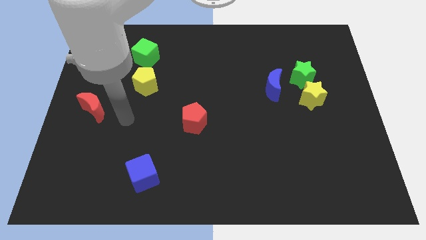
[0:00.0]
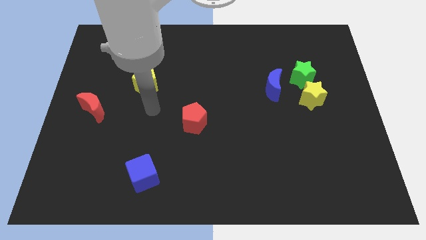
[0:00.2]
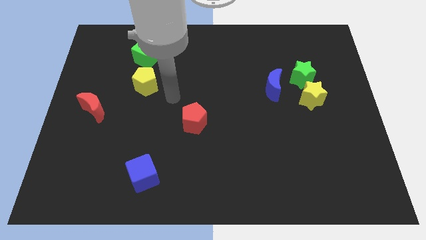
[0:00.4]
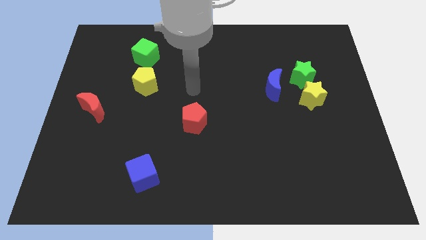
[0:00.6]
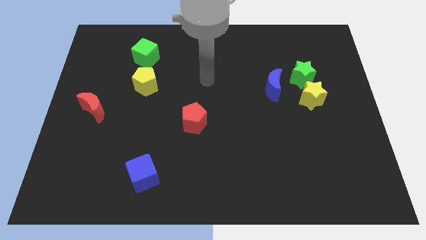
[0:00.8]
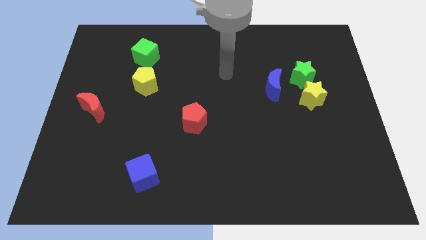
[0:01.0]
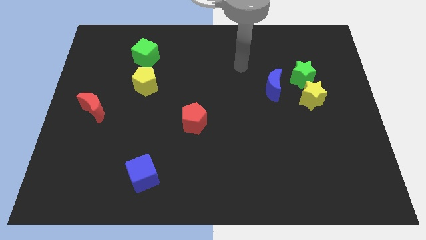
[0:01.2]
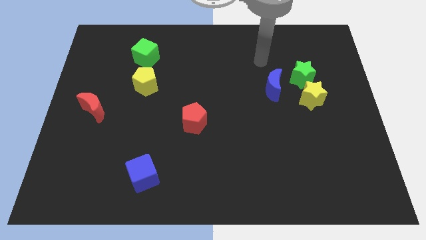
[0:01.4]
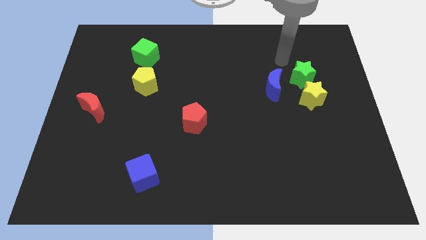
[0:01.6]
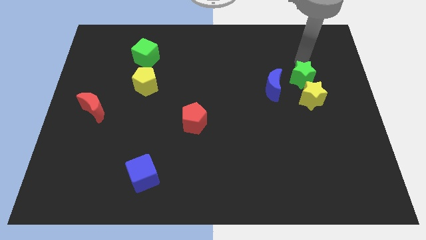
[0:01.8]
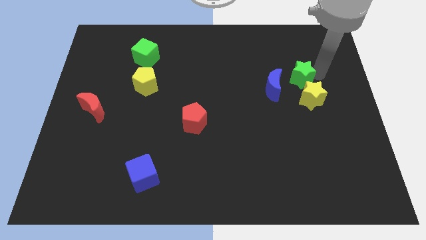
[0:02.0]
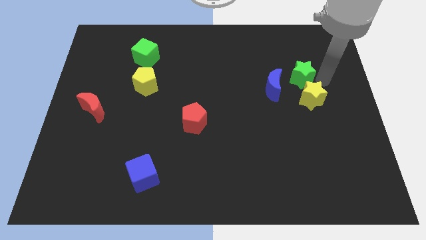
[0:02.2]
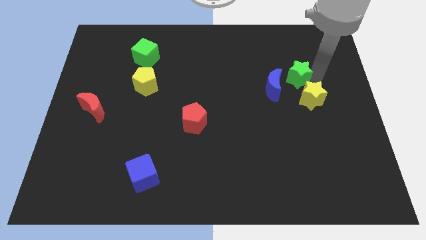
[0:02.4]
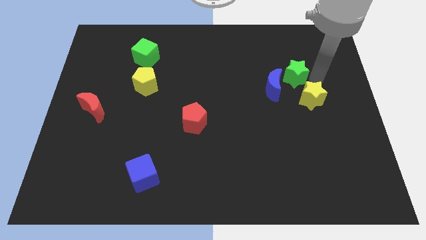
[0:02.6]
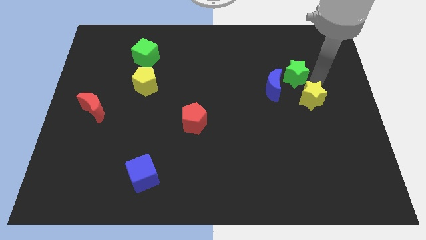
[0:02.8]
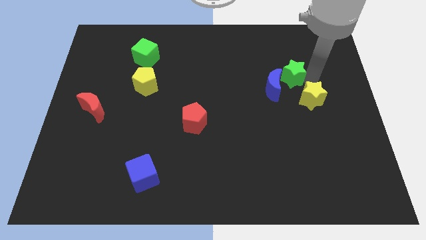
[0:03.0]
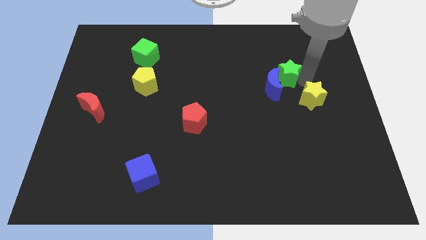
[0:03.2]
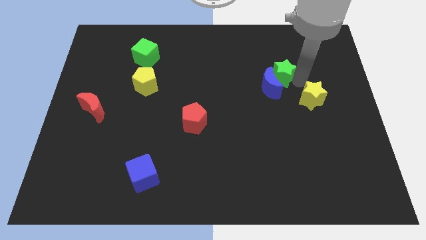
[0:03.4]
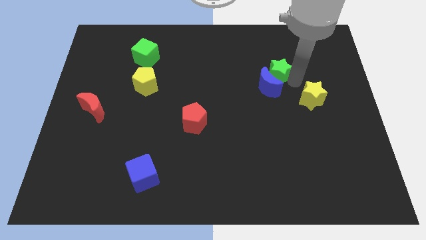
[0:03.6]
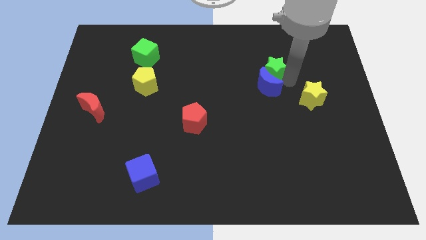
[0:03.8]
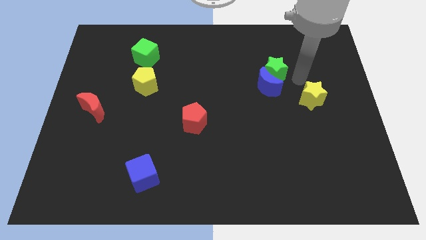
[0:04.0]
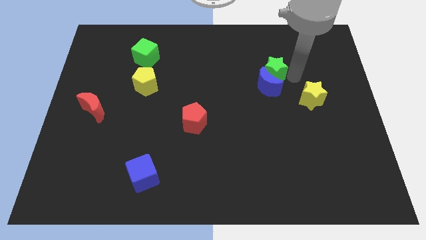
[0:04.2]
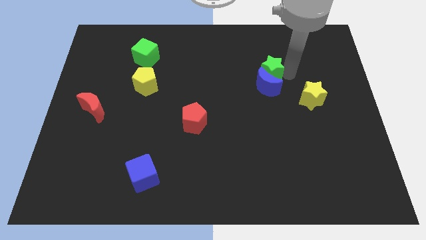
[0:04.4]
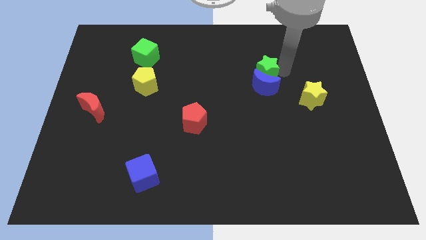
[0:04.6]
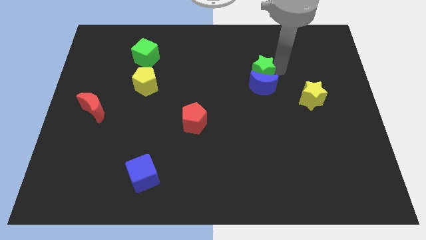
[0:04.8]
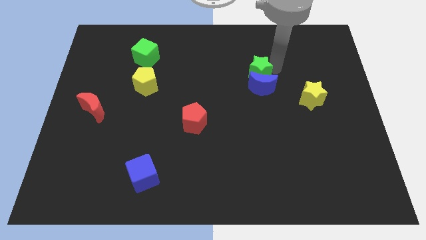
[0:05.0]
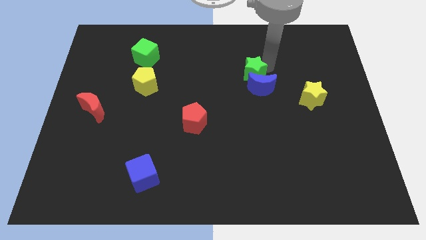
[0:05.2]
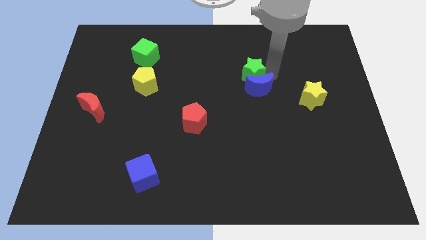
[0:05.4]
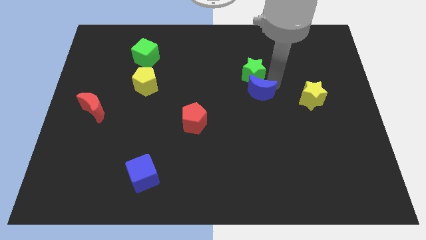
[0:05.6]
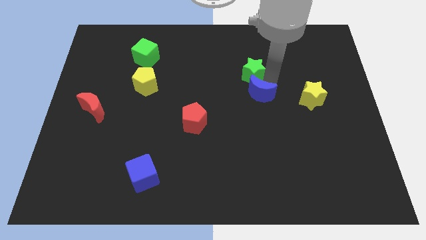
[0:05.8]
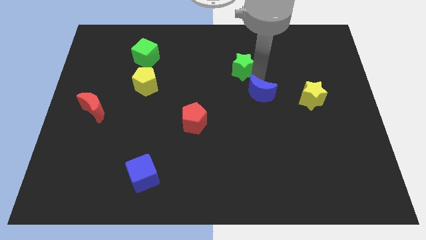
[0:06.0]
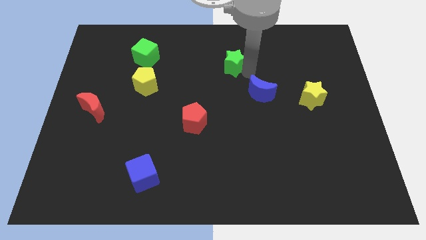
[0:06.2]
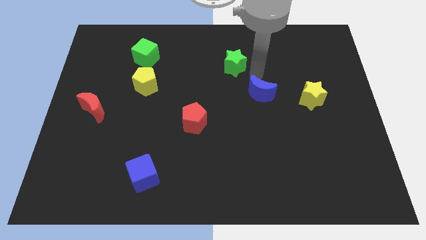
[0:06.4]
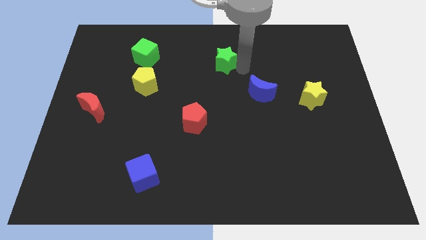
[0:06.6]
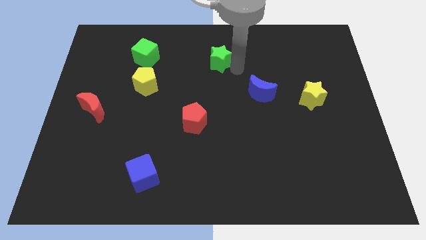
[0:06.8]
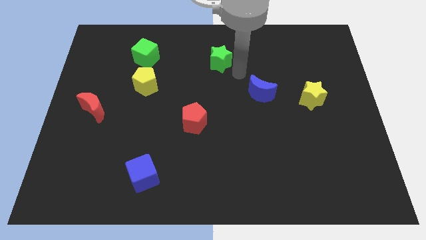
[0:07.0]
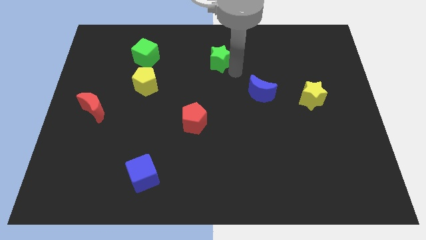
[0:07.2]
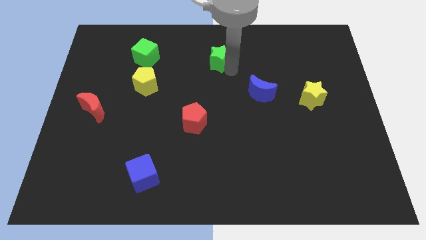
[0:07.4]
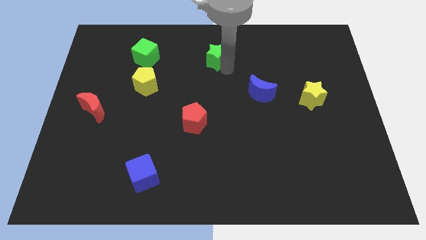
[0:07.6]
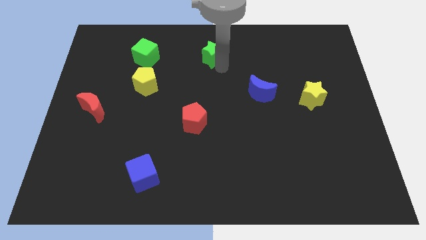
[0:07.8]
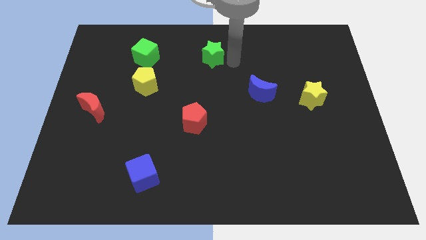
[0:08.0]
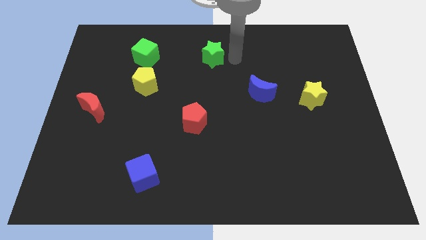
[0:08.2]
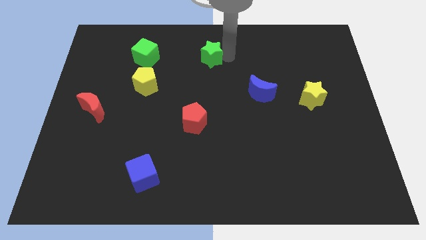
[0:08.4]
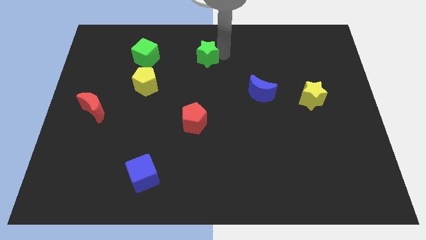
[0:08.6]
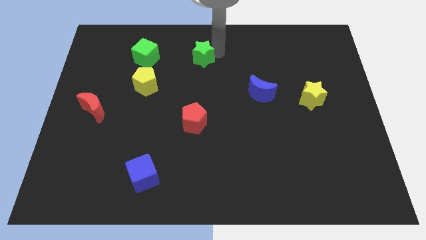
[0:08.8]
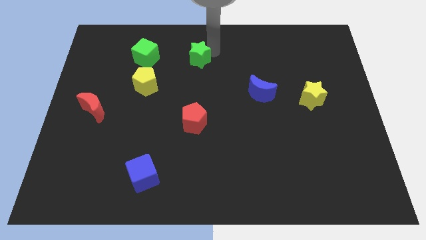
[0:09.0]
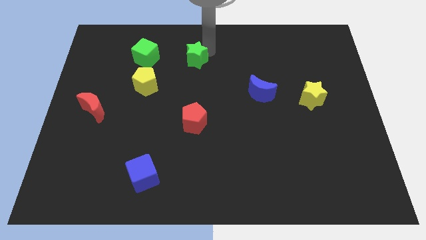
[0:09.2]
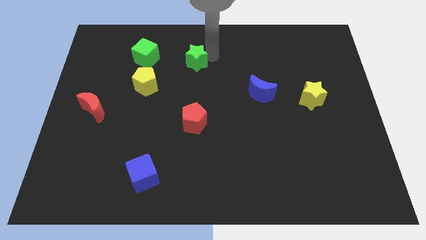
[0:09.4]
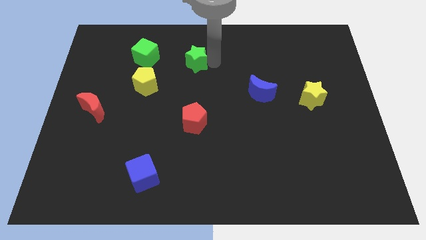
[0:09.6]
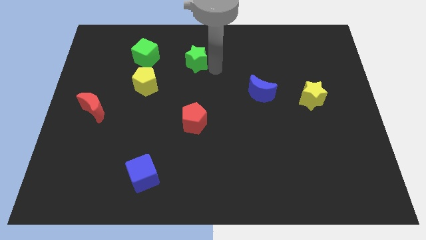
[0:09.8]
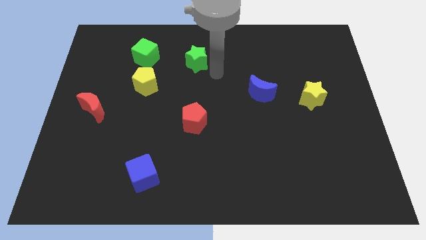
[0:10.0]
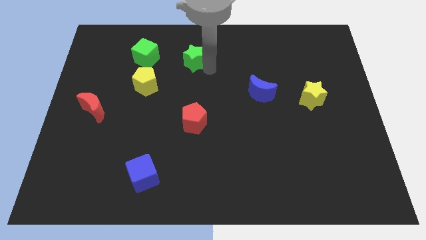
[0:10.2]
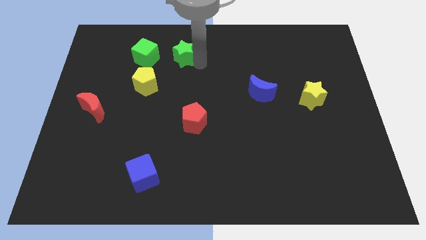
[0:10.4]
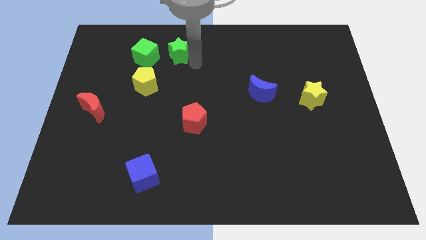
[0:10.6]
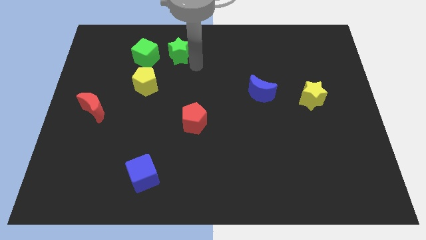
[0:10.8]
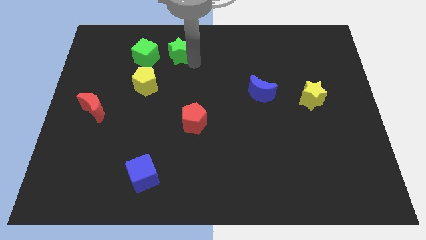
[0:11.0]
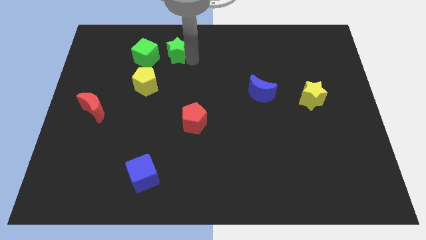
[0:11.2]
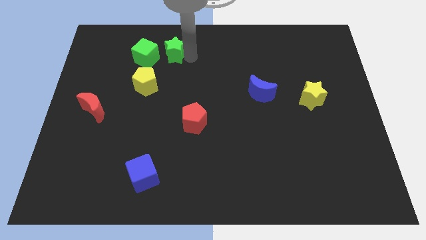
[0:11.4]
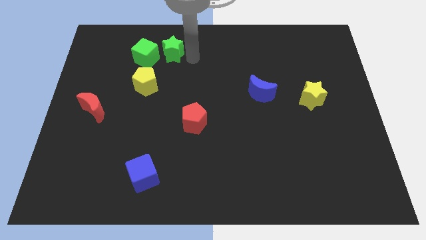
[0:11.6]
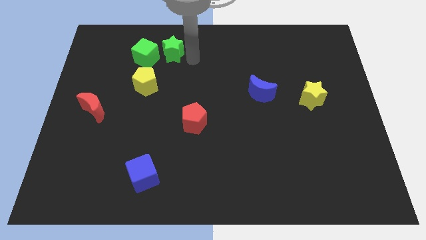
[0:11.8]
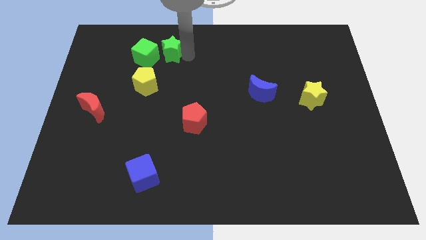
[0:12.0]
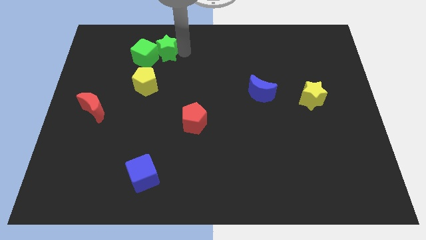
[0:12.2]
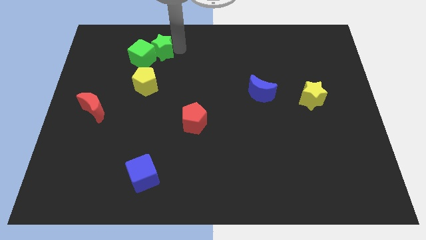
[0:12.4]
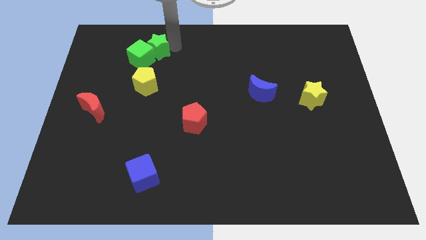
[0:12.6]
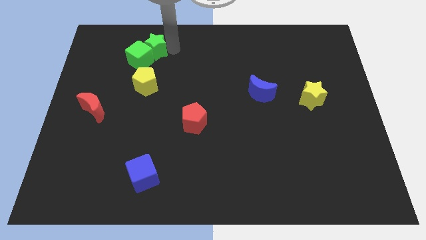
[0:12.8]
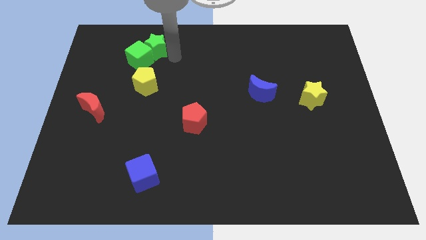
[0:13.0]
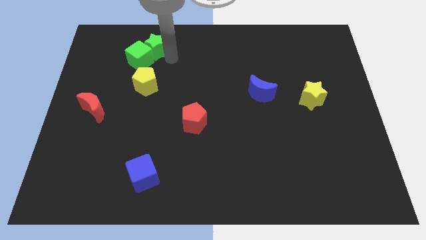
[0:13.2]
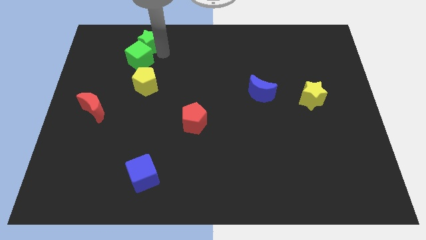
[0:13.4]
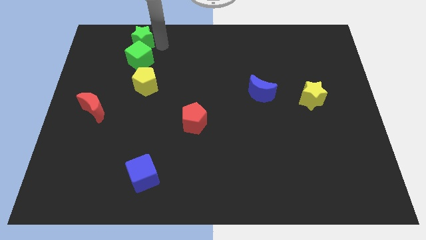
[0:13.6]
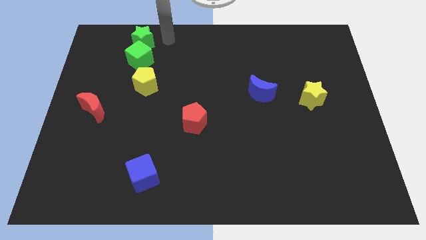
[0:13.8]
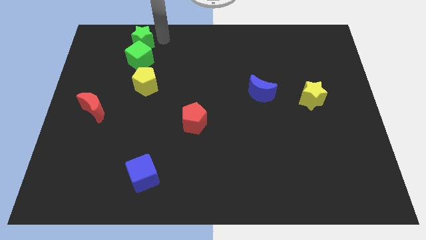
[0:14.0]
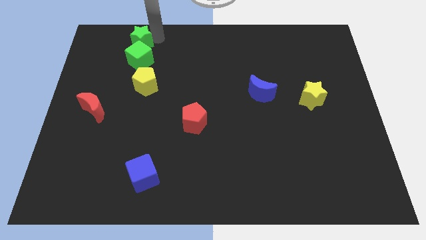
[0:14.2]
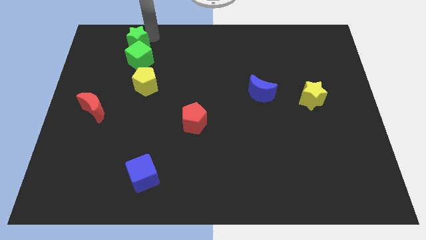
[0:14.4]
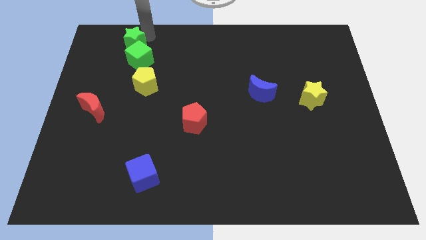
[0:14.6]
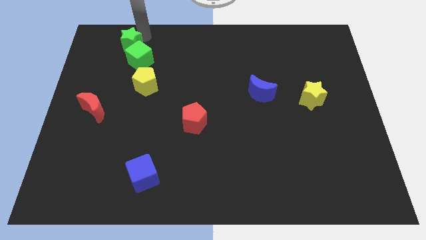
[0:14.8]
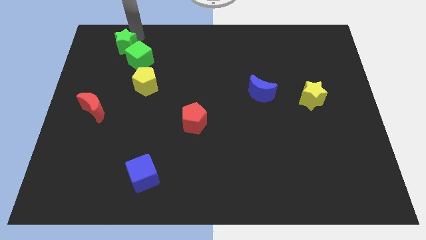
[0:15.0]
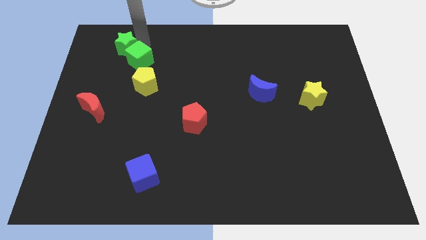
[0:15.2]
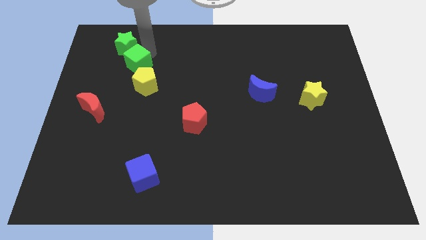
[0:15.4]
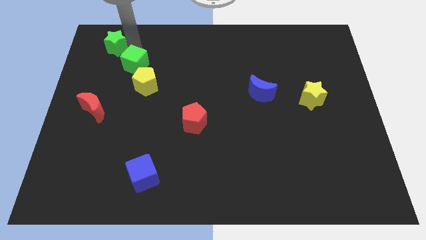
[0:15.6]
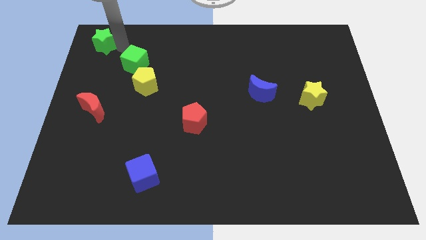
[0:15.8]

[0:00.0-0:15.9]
move the green star to the top left corner
